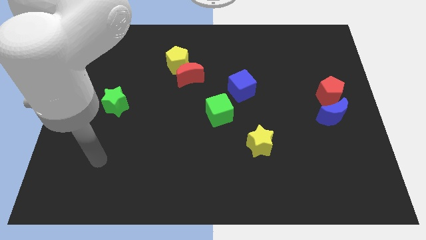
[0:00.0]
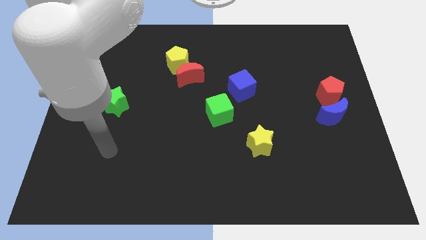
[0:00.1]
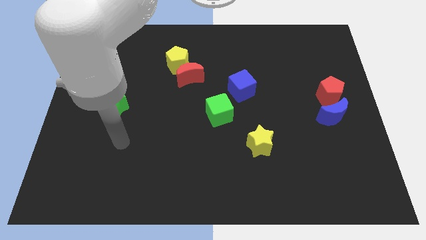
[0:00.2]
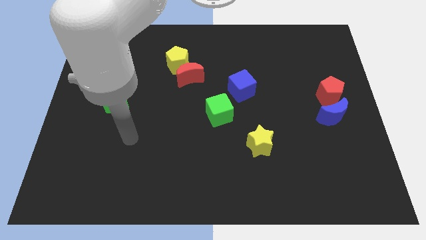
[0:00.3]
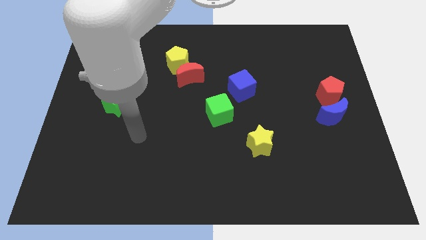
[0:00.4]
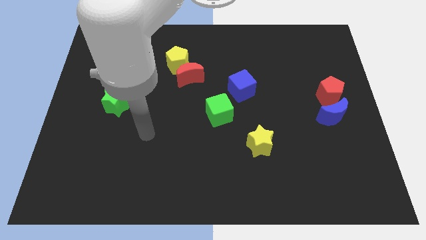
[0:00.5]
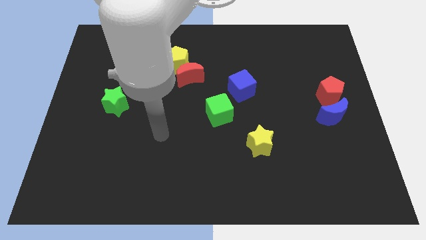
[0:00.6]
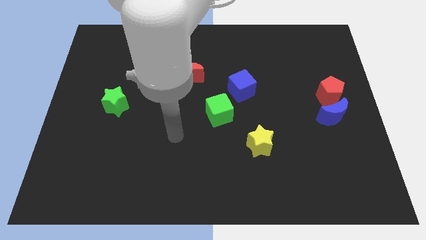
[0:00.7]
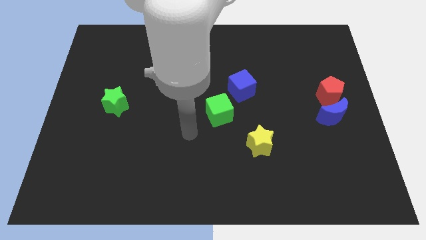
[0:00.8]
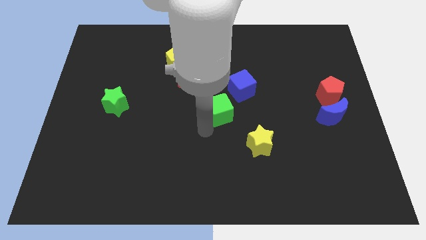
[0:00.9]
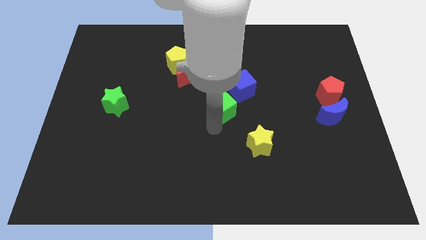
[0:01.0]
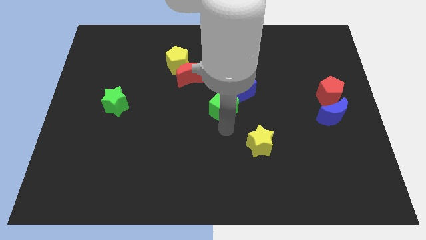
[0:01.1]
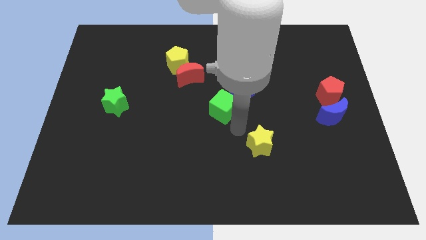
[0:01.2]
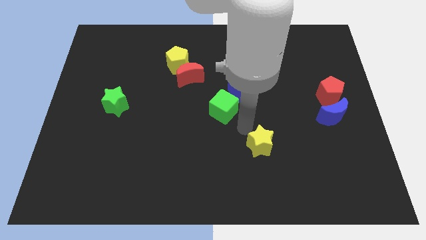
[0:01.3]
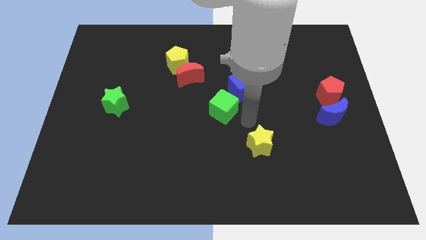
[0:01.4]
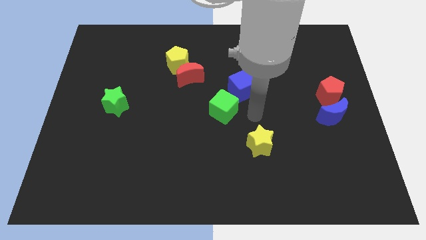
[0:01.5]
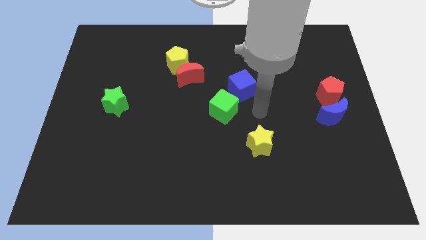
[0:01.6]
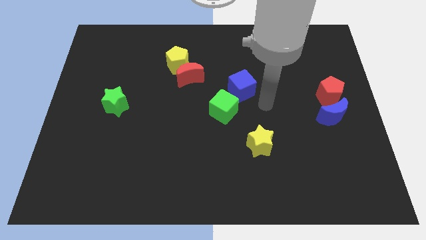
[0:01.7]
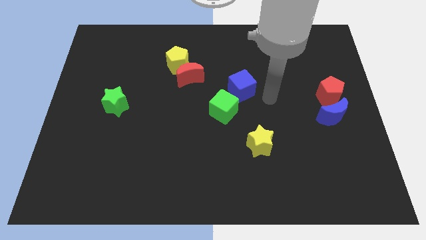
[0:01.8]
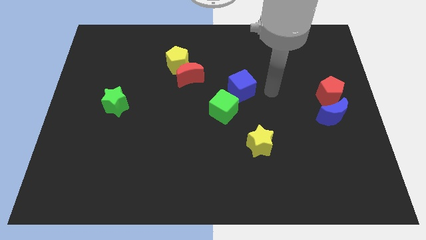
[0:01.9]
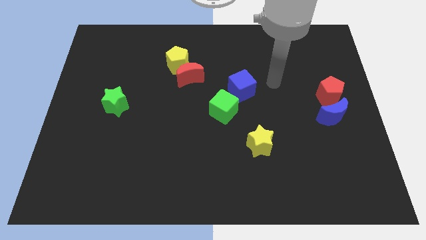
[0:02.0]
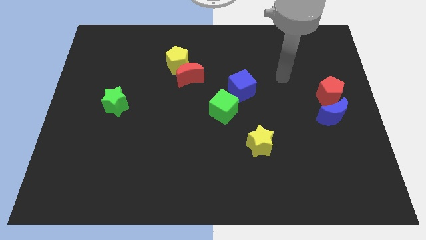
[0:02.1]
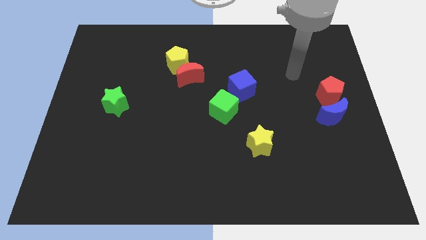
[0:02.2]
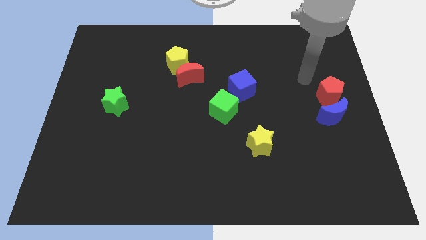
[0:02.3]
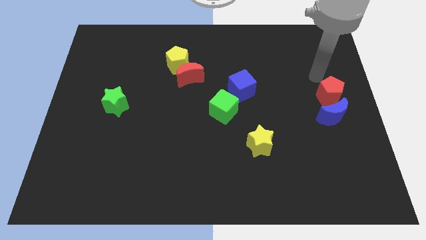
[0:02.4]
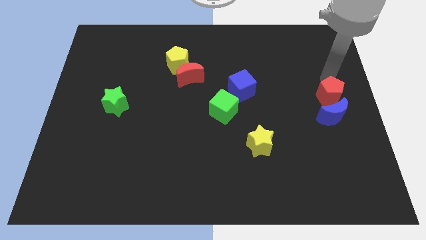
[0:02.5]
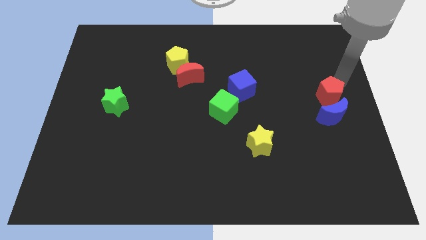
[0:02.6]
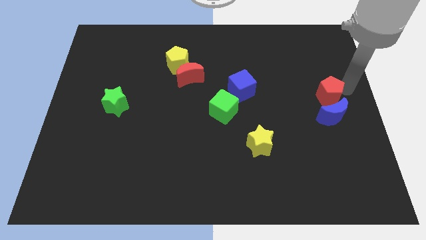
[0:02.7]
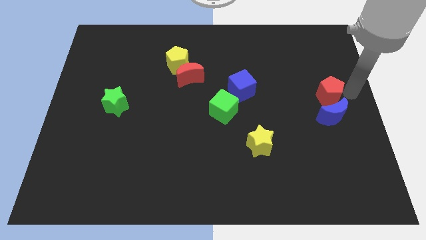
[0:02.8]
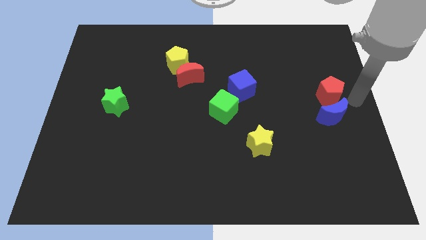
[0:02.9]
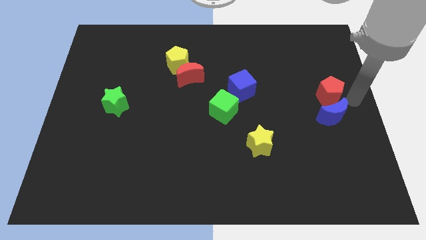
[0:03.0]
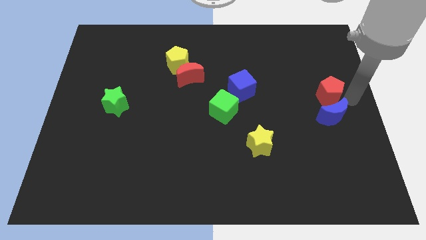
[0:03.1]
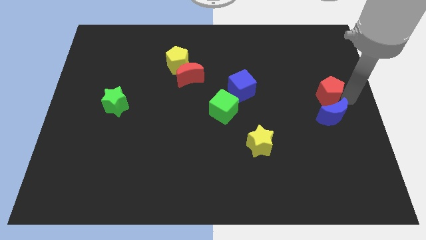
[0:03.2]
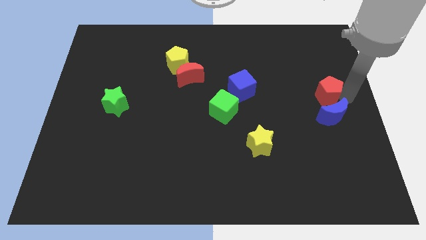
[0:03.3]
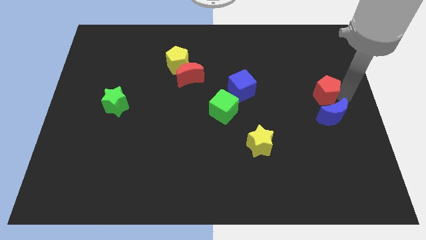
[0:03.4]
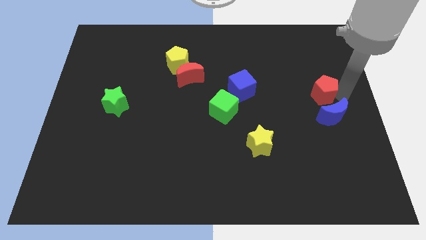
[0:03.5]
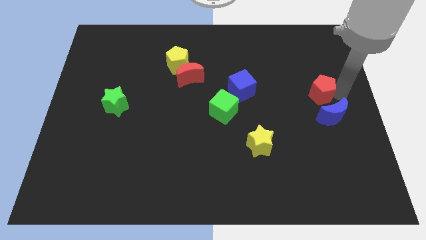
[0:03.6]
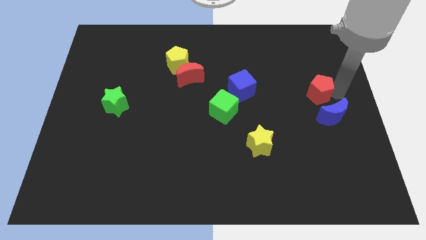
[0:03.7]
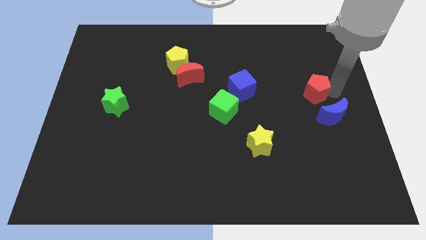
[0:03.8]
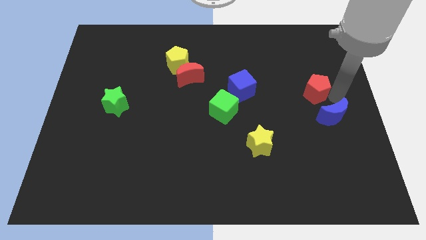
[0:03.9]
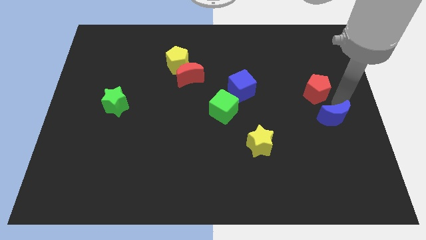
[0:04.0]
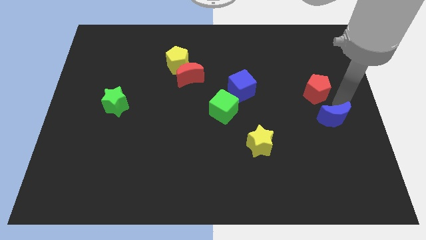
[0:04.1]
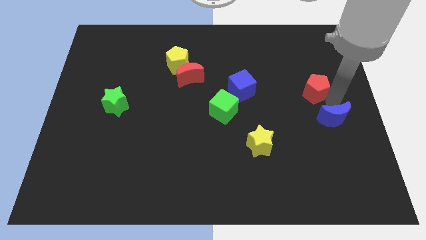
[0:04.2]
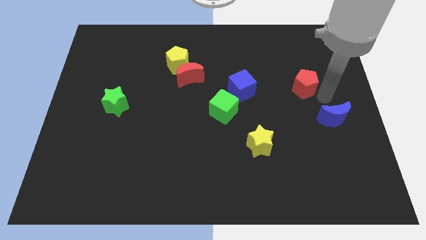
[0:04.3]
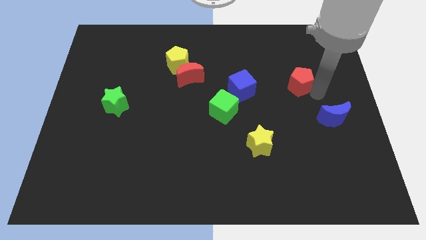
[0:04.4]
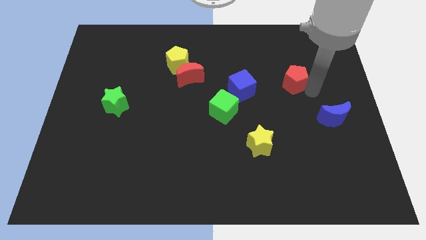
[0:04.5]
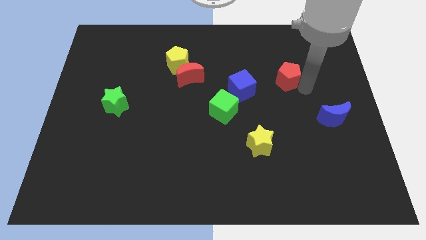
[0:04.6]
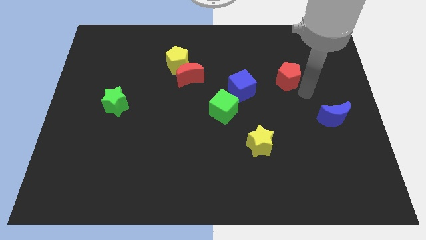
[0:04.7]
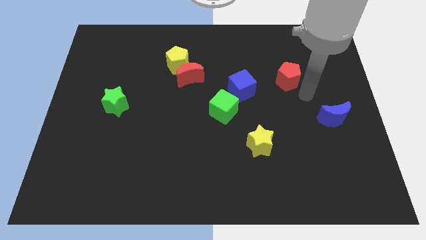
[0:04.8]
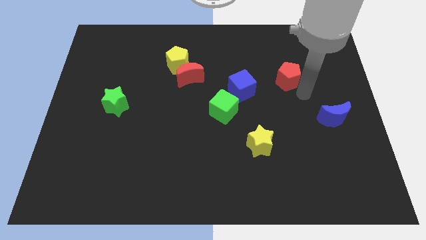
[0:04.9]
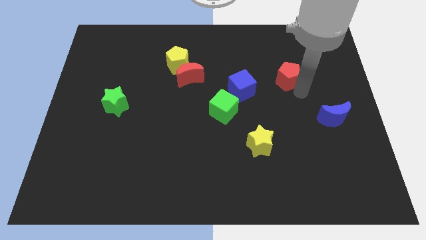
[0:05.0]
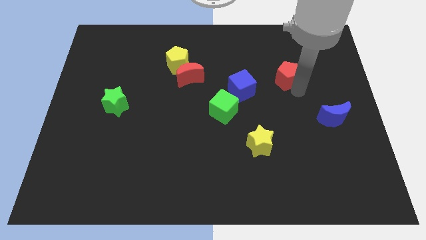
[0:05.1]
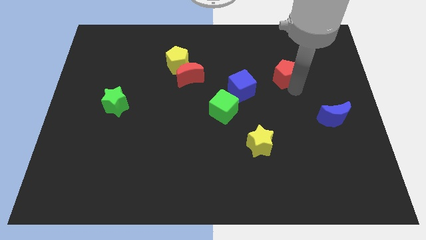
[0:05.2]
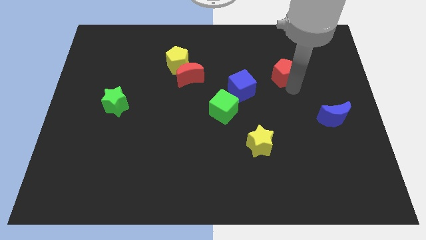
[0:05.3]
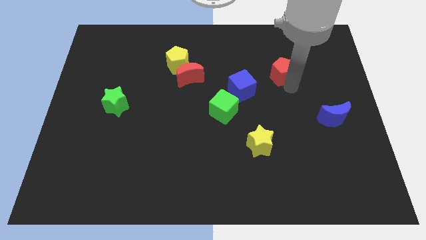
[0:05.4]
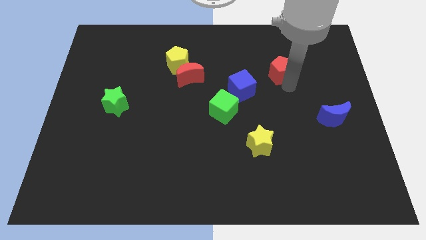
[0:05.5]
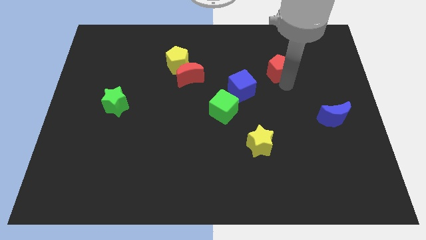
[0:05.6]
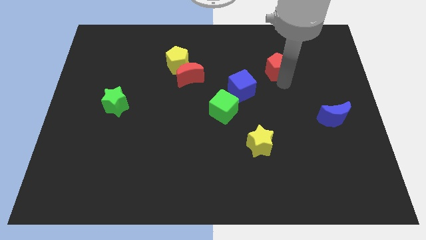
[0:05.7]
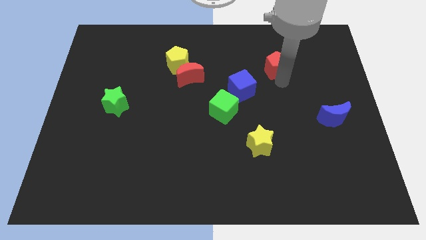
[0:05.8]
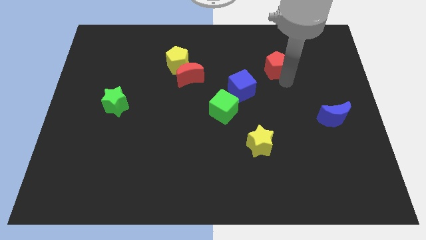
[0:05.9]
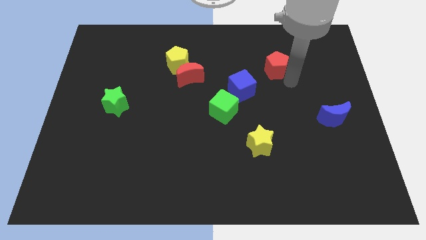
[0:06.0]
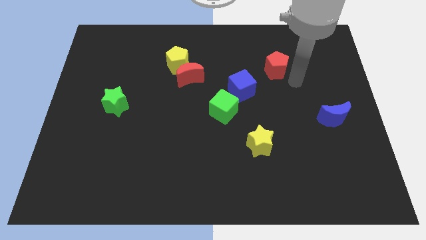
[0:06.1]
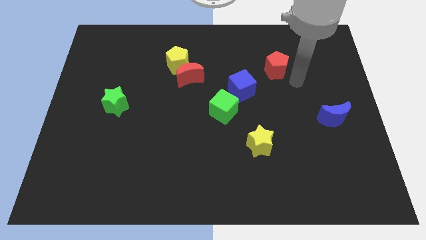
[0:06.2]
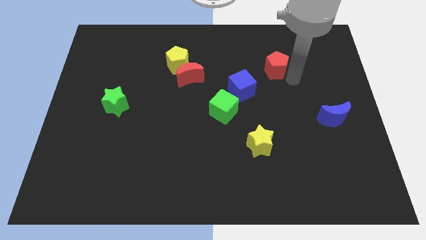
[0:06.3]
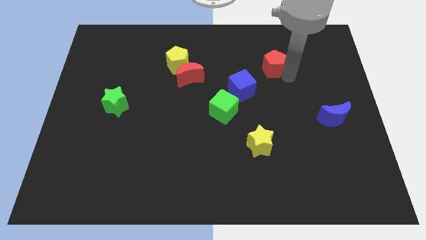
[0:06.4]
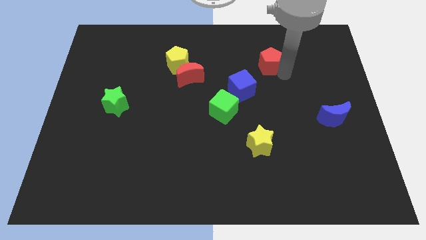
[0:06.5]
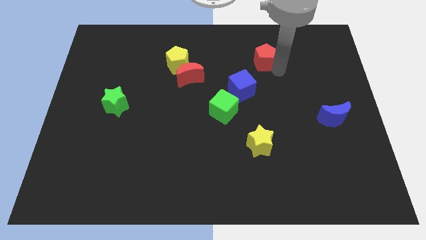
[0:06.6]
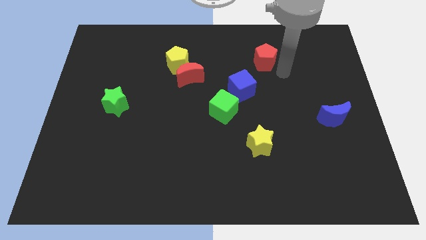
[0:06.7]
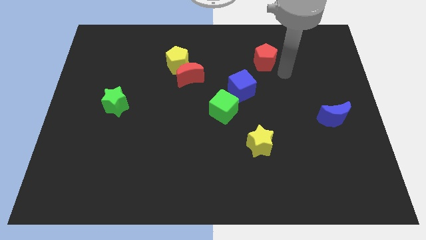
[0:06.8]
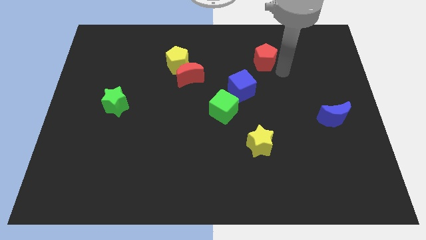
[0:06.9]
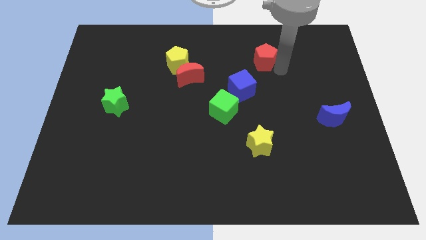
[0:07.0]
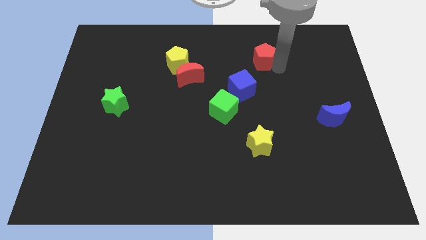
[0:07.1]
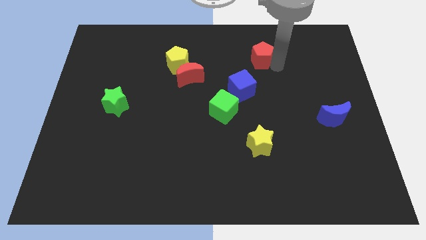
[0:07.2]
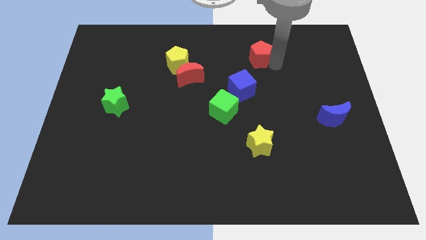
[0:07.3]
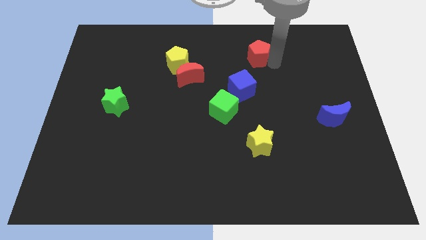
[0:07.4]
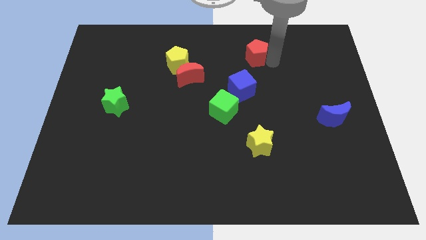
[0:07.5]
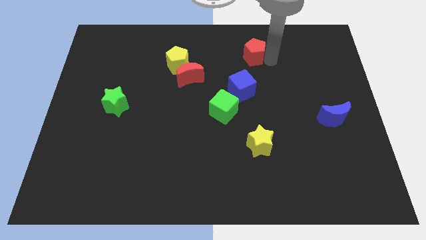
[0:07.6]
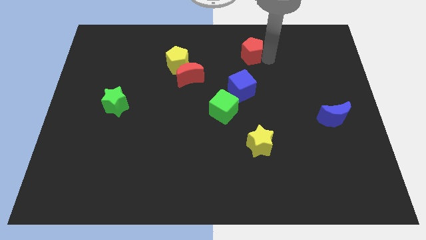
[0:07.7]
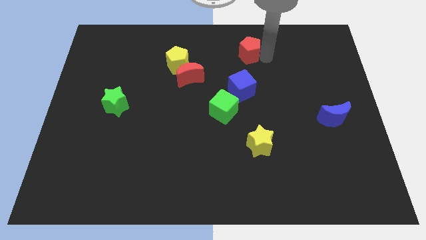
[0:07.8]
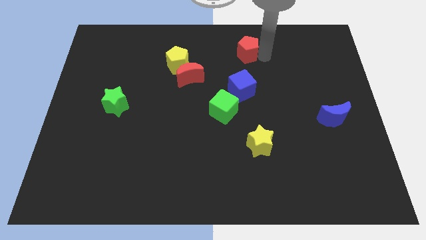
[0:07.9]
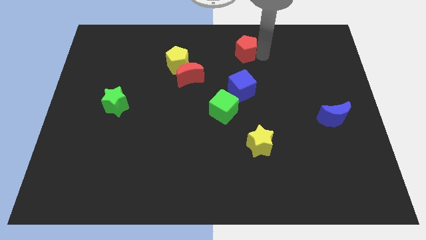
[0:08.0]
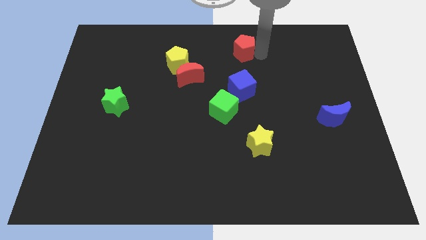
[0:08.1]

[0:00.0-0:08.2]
move the red pentagon to the top side
